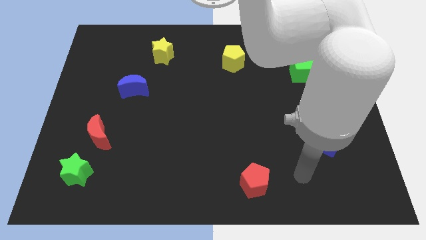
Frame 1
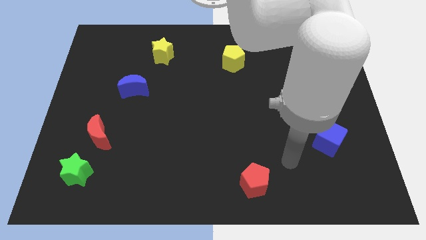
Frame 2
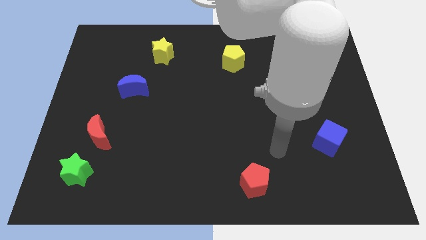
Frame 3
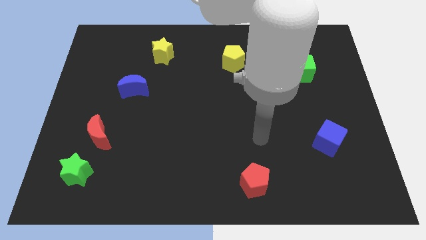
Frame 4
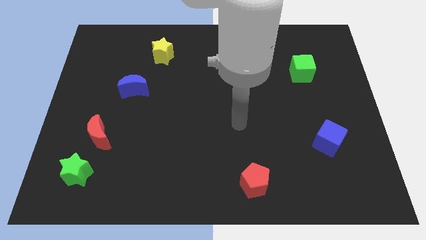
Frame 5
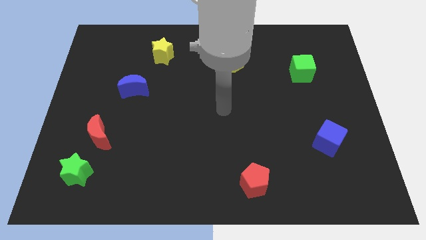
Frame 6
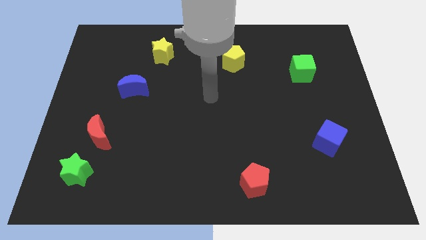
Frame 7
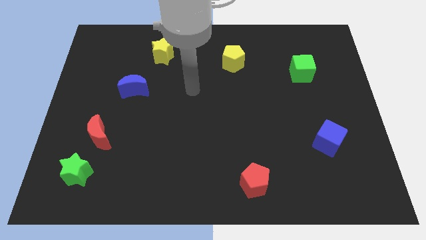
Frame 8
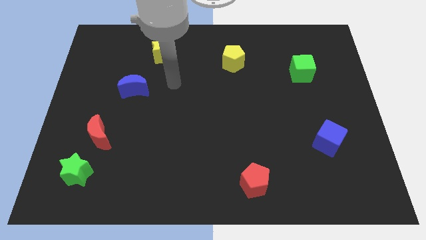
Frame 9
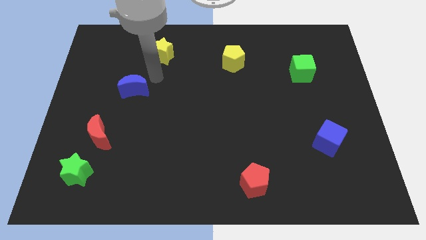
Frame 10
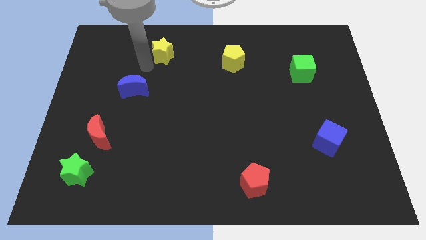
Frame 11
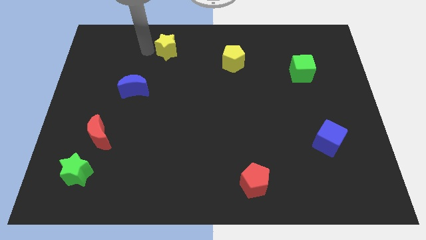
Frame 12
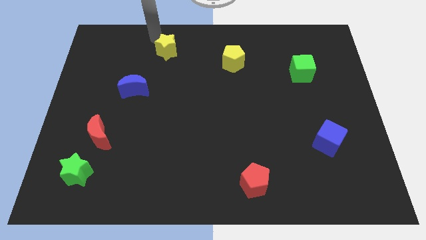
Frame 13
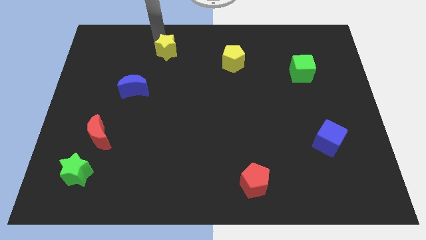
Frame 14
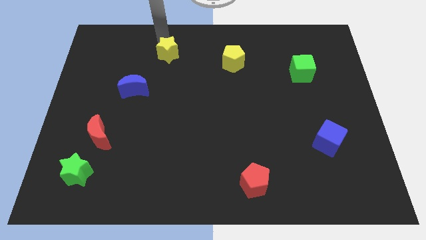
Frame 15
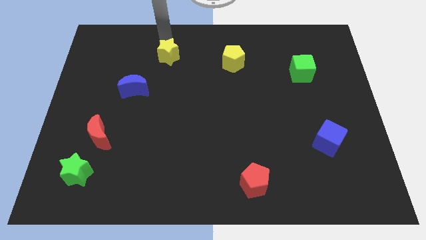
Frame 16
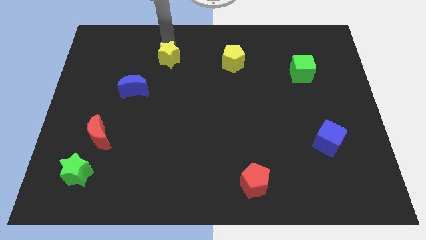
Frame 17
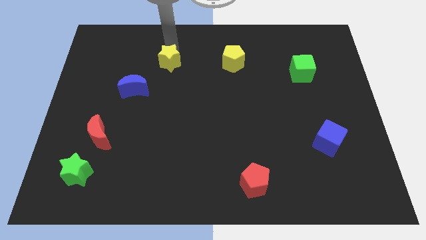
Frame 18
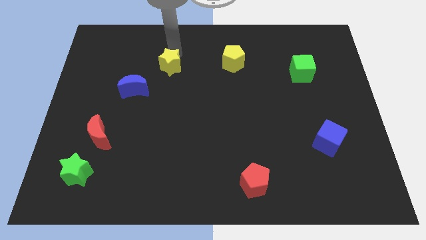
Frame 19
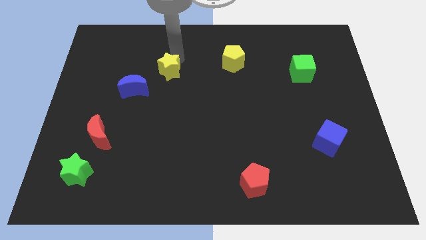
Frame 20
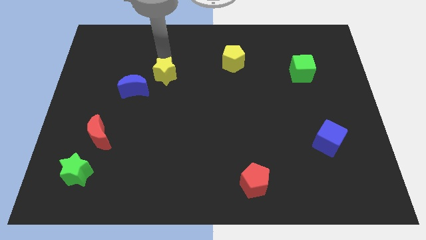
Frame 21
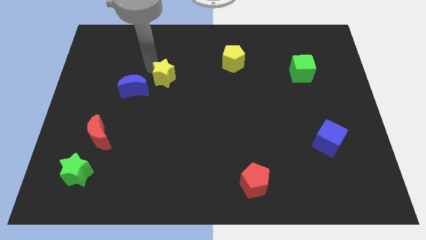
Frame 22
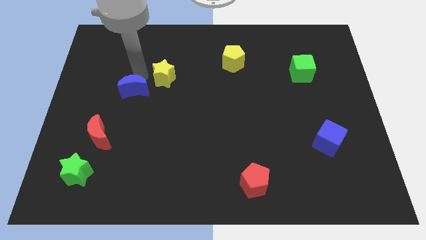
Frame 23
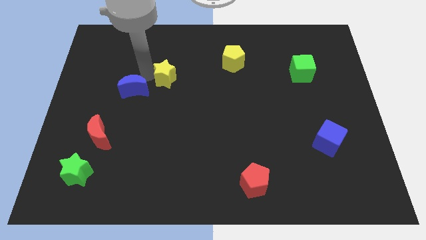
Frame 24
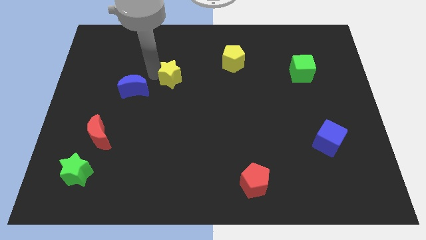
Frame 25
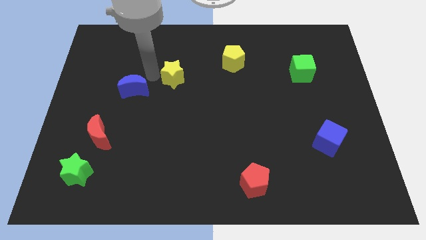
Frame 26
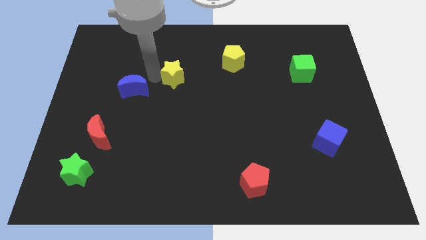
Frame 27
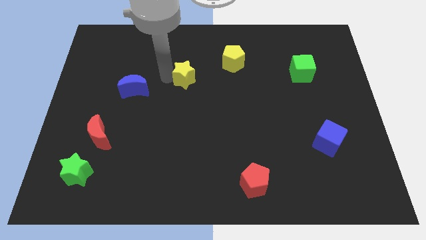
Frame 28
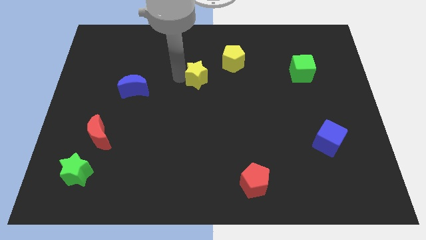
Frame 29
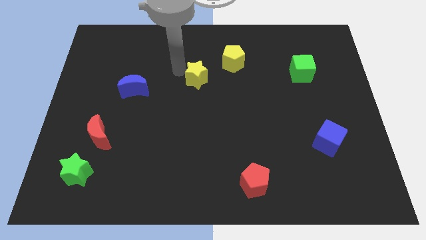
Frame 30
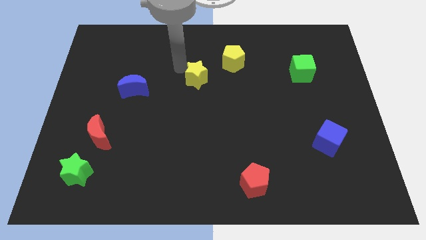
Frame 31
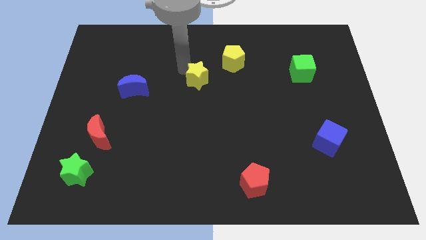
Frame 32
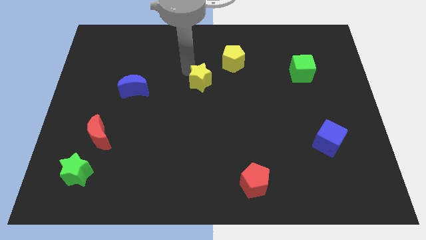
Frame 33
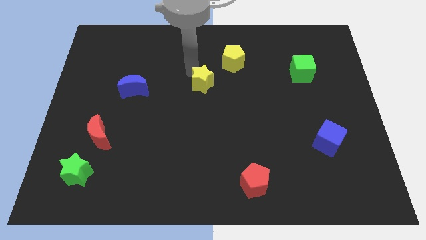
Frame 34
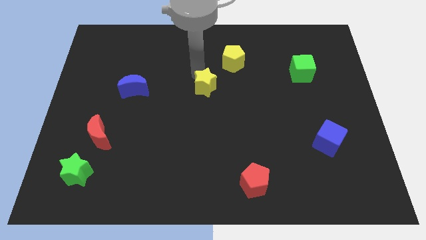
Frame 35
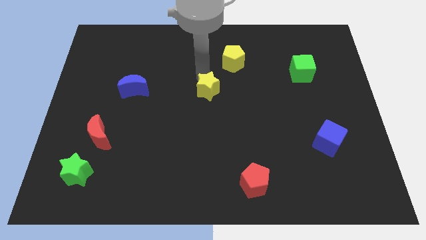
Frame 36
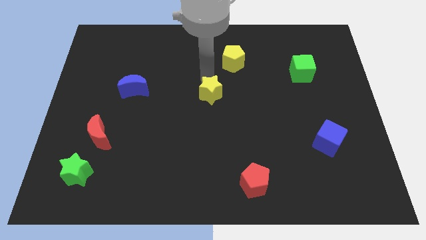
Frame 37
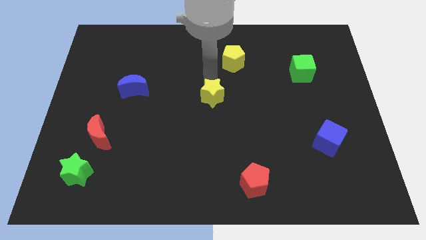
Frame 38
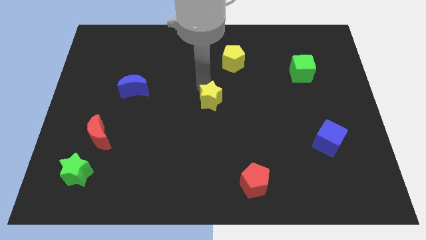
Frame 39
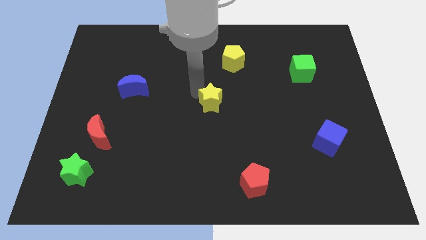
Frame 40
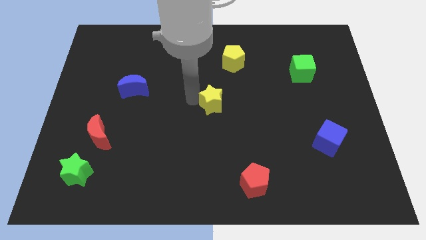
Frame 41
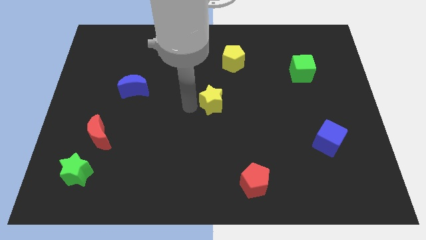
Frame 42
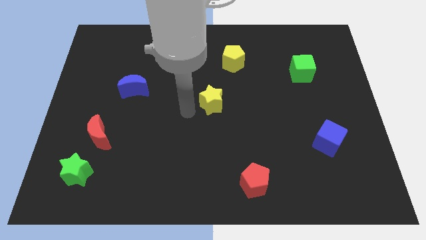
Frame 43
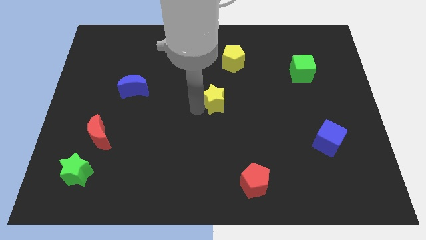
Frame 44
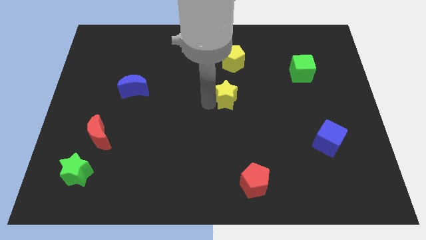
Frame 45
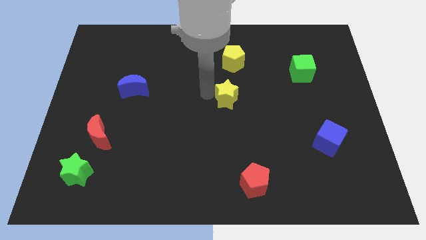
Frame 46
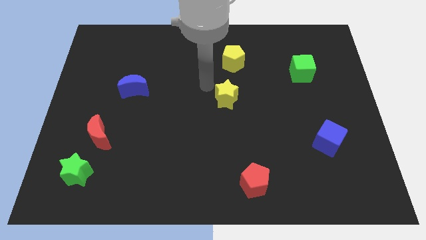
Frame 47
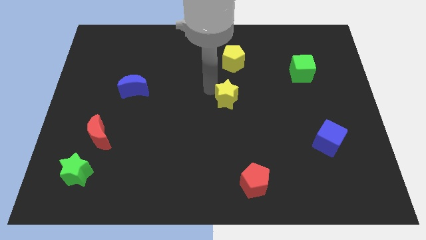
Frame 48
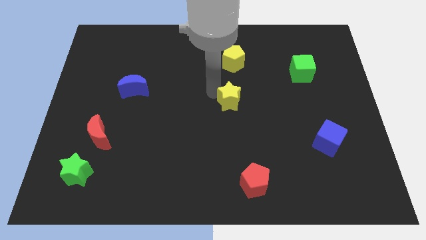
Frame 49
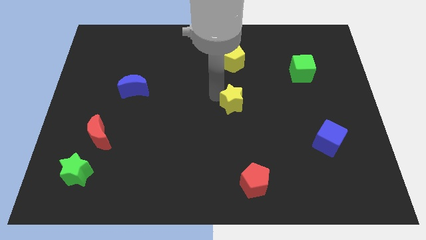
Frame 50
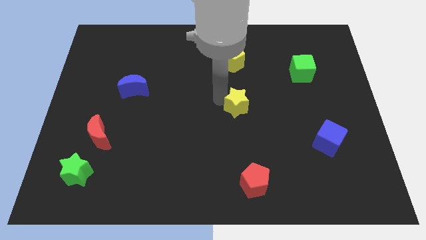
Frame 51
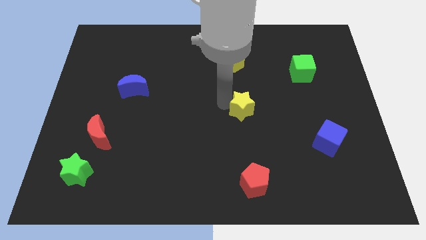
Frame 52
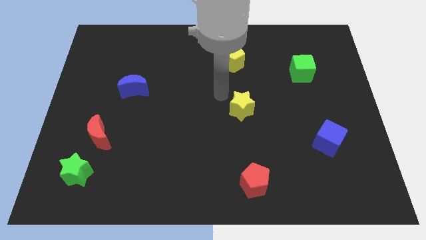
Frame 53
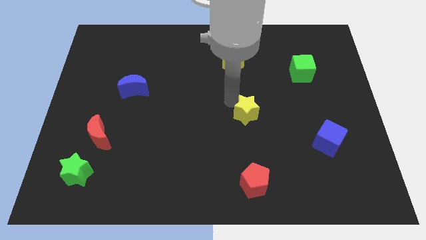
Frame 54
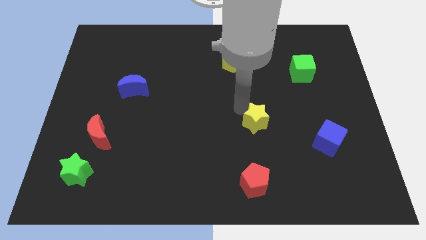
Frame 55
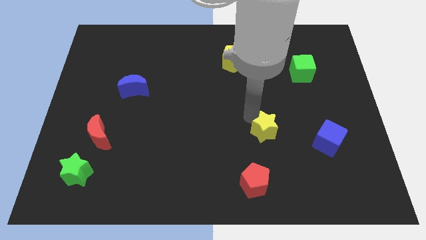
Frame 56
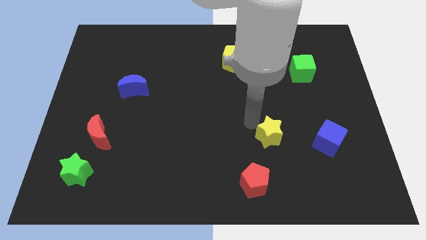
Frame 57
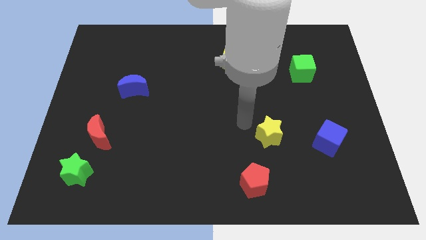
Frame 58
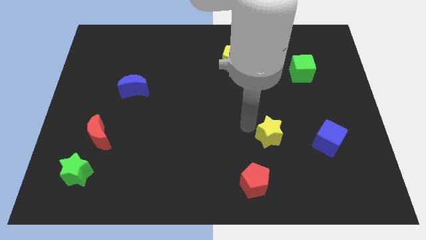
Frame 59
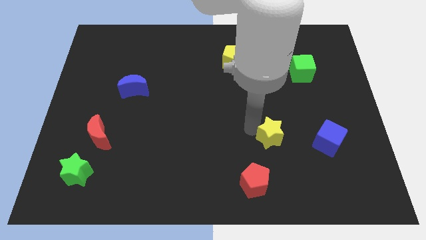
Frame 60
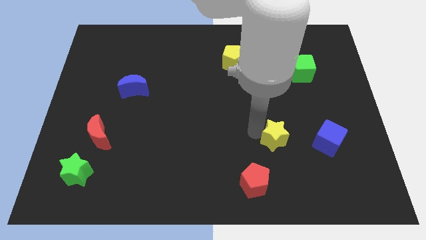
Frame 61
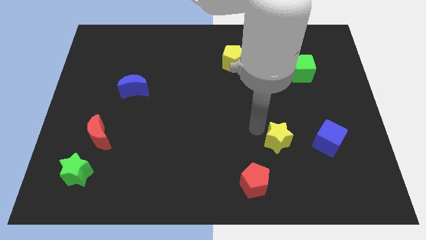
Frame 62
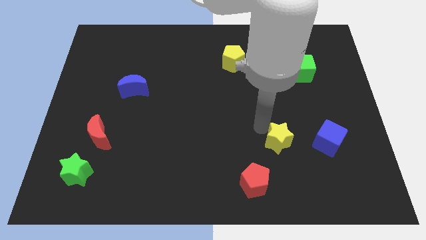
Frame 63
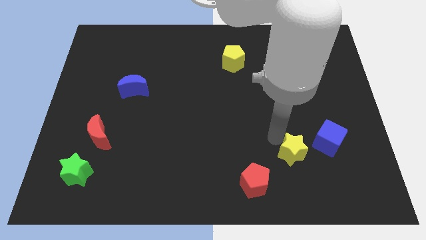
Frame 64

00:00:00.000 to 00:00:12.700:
push the yellow star diagonally down and to the left of the blue cube
